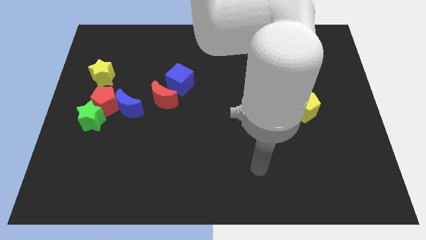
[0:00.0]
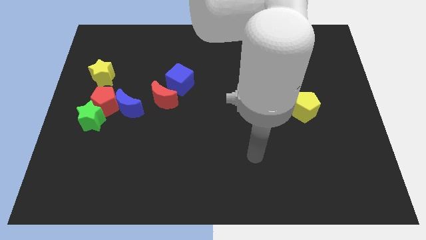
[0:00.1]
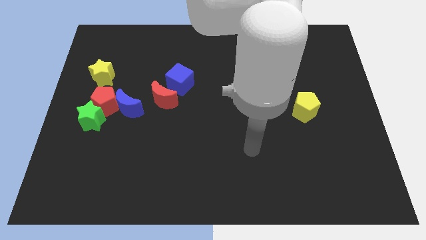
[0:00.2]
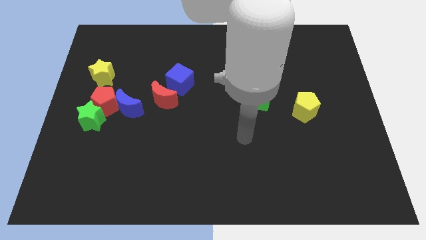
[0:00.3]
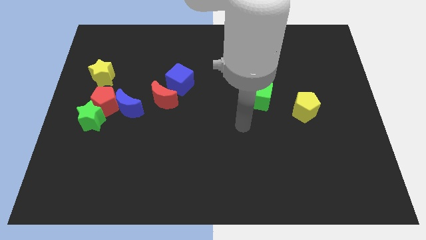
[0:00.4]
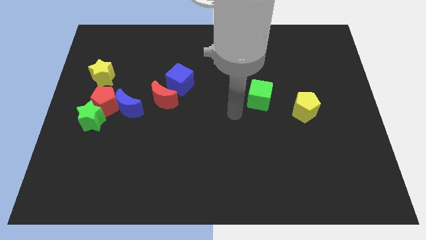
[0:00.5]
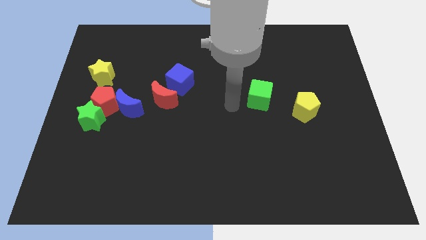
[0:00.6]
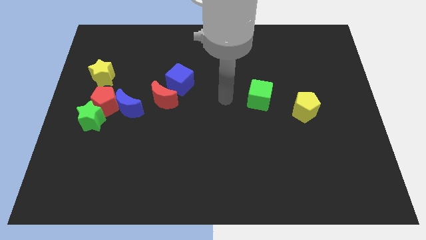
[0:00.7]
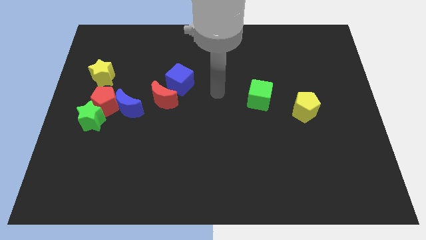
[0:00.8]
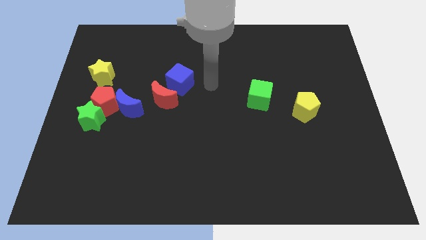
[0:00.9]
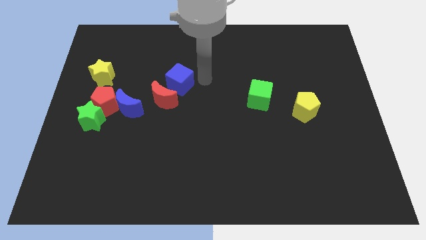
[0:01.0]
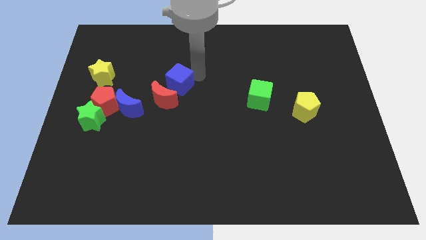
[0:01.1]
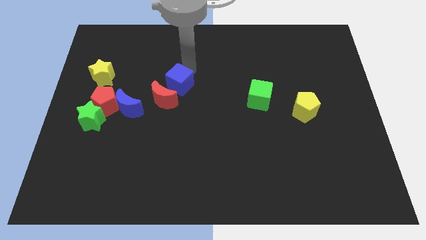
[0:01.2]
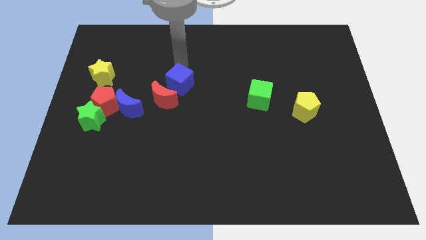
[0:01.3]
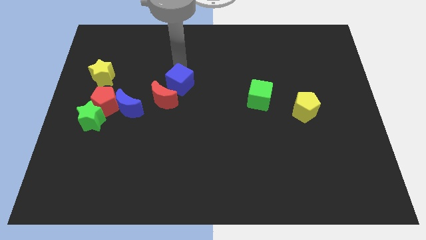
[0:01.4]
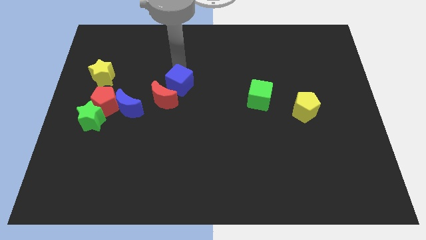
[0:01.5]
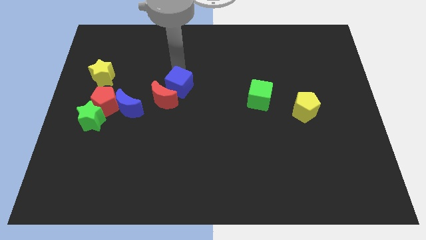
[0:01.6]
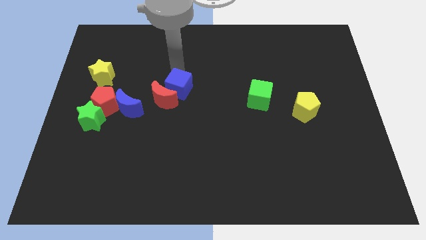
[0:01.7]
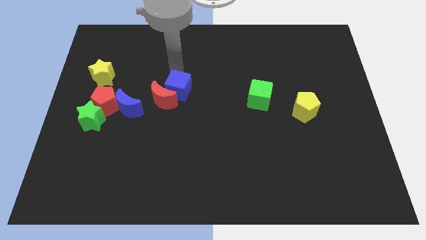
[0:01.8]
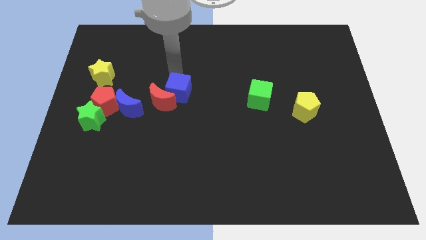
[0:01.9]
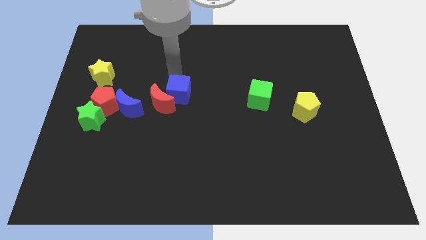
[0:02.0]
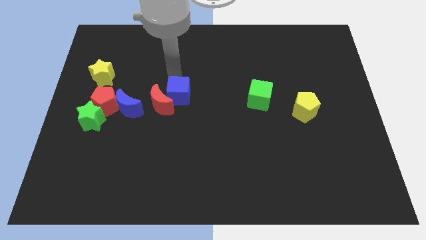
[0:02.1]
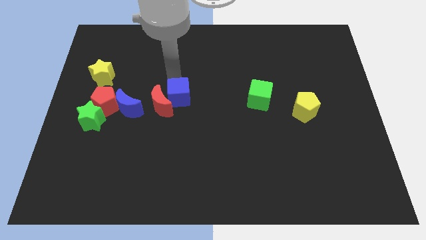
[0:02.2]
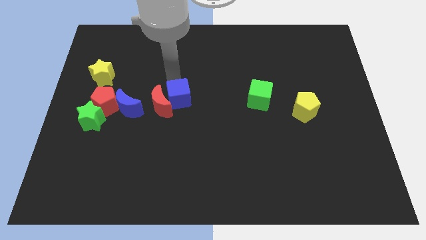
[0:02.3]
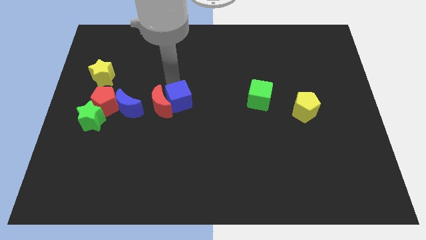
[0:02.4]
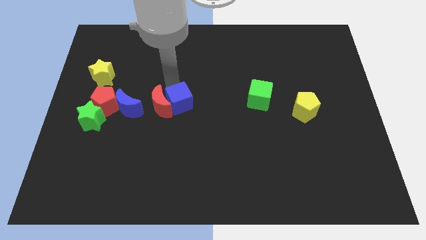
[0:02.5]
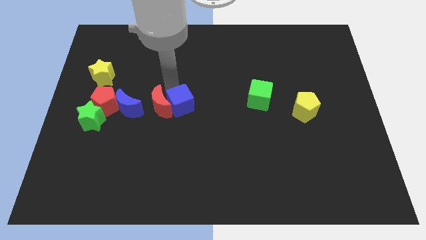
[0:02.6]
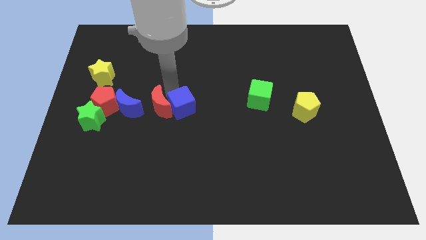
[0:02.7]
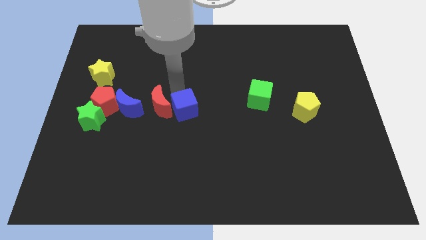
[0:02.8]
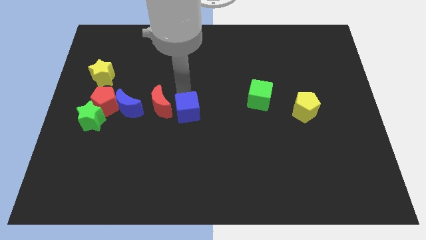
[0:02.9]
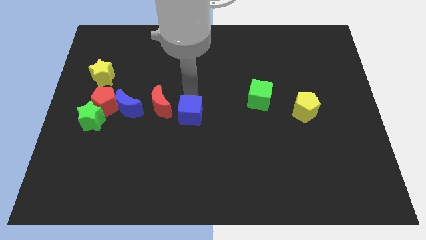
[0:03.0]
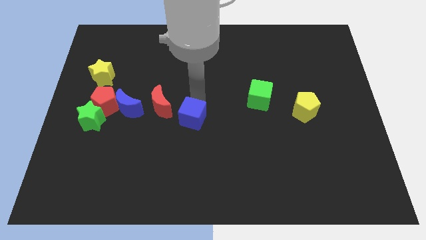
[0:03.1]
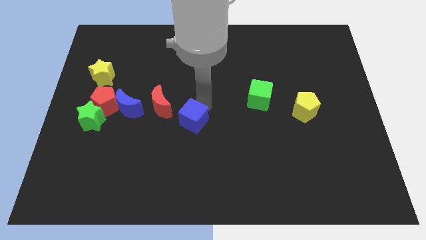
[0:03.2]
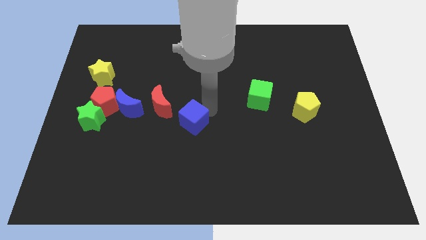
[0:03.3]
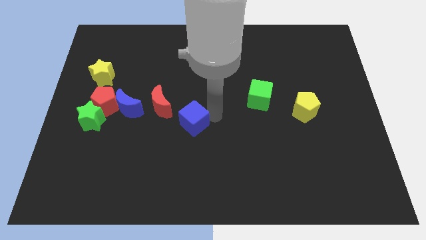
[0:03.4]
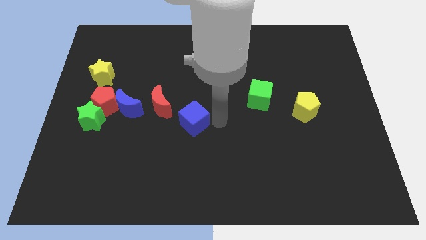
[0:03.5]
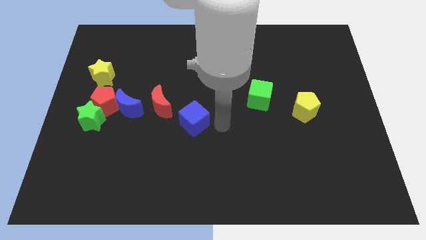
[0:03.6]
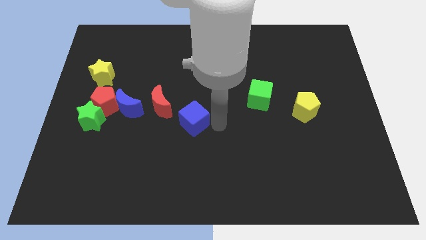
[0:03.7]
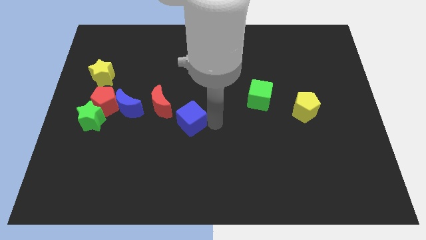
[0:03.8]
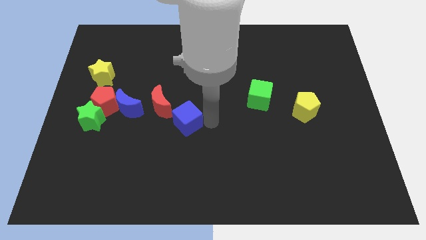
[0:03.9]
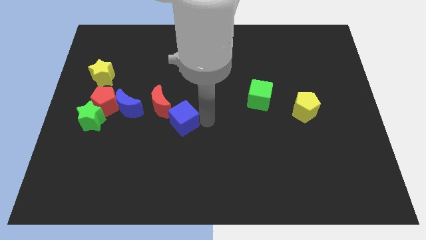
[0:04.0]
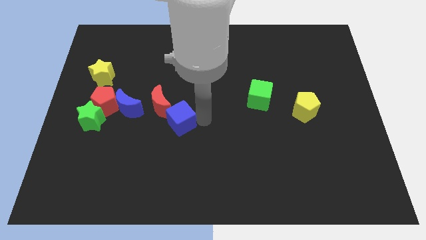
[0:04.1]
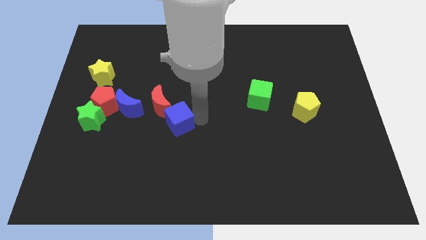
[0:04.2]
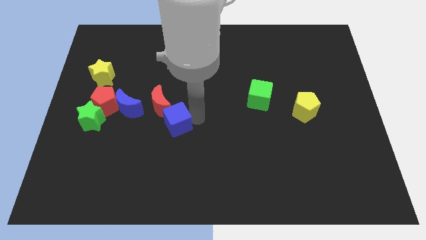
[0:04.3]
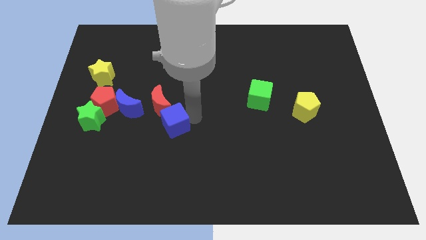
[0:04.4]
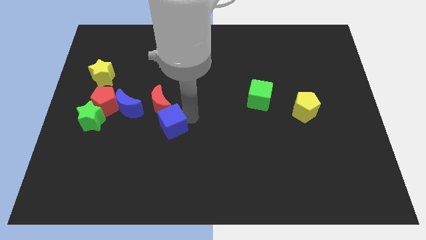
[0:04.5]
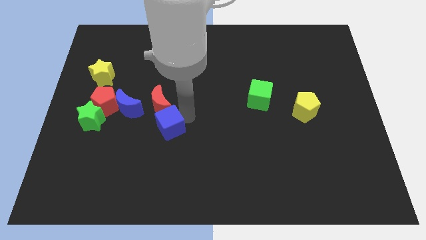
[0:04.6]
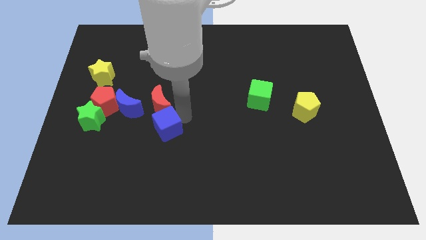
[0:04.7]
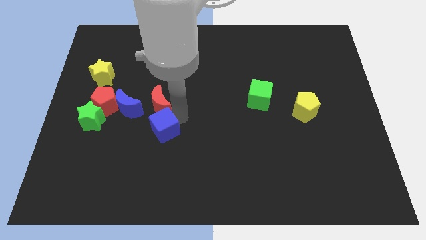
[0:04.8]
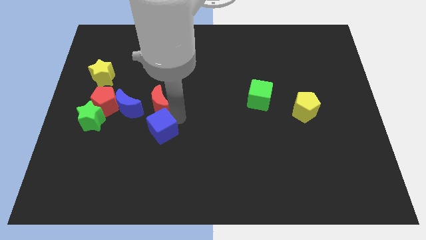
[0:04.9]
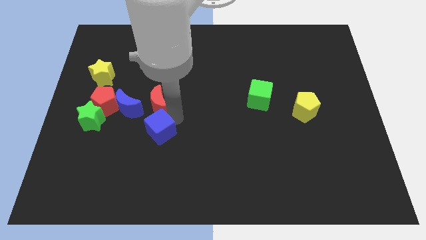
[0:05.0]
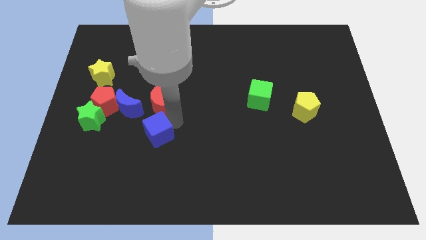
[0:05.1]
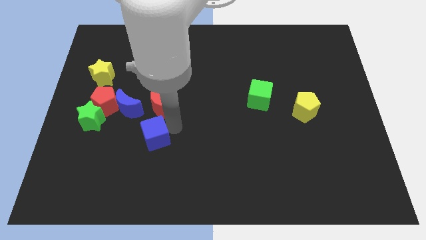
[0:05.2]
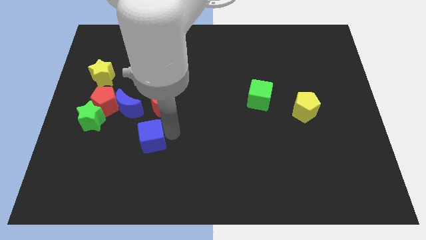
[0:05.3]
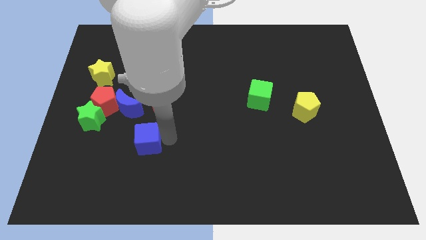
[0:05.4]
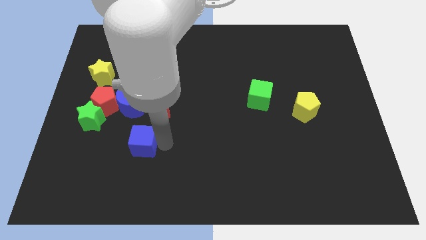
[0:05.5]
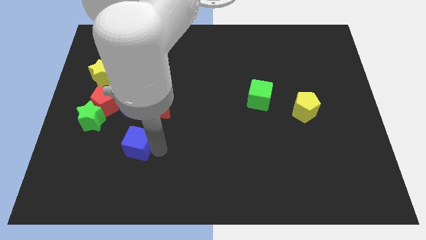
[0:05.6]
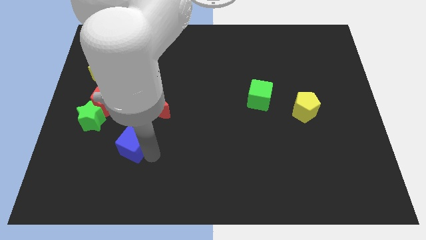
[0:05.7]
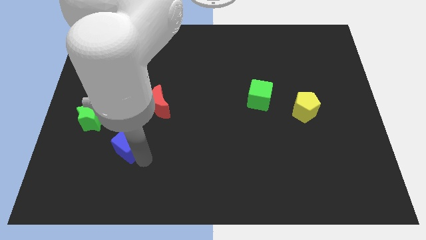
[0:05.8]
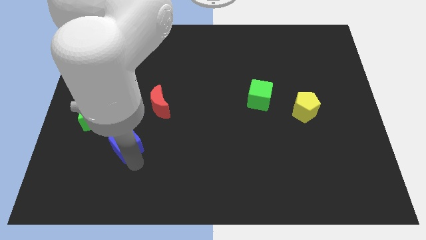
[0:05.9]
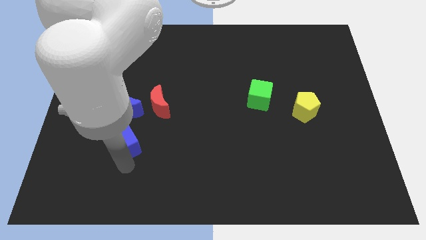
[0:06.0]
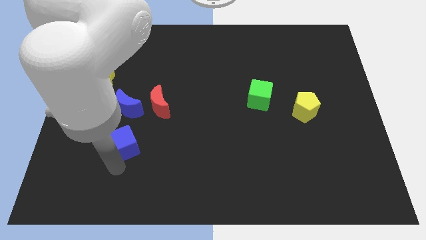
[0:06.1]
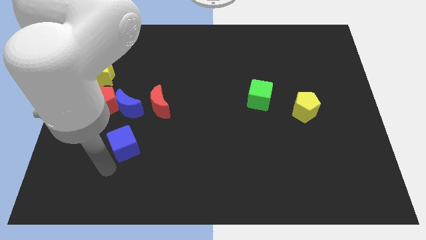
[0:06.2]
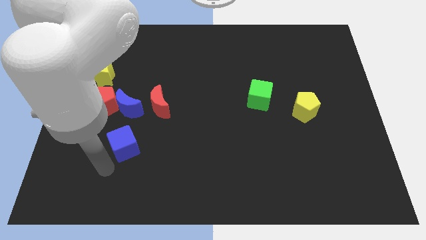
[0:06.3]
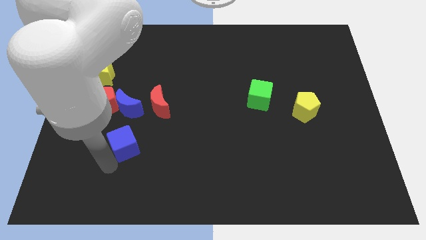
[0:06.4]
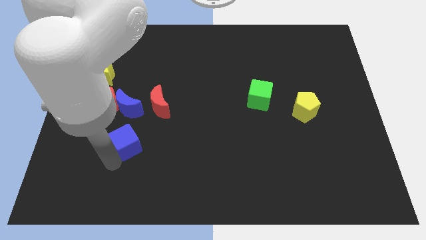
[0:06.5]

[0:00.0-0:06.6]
put the blue cube to the bottom left side of the red moon
